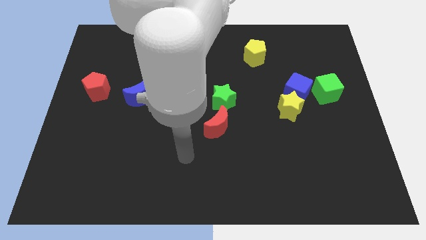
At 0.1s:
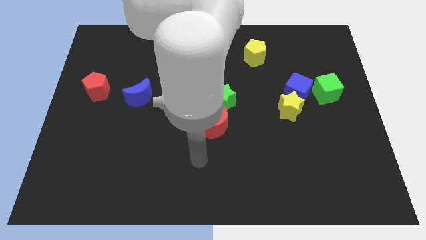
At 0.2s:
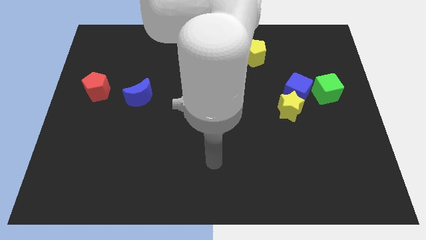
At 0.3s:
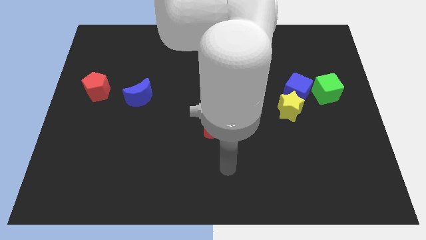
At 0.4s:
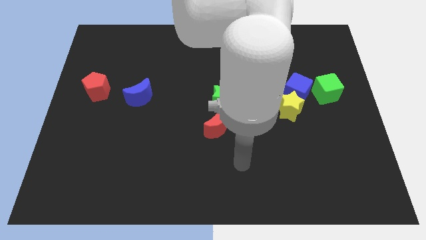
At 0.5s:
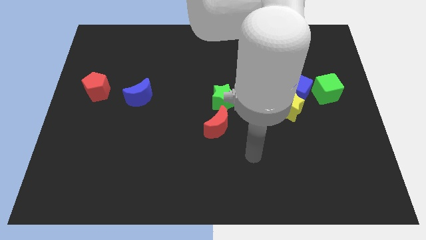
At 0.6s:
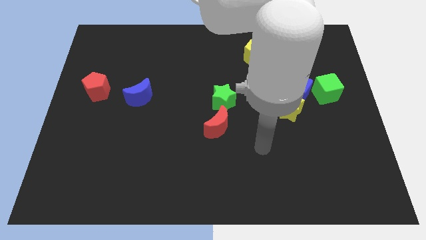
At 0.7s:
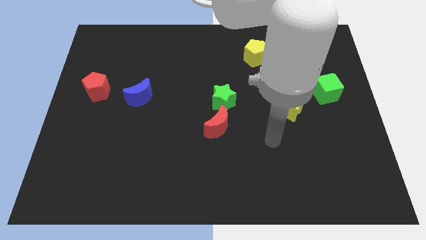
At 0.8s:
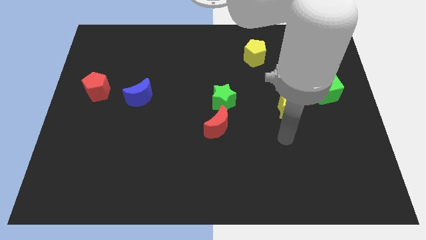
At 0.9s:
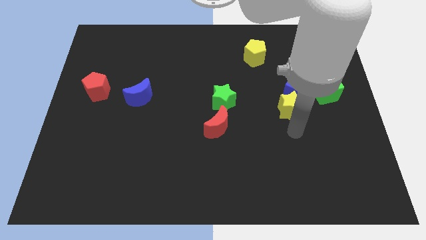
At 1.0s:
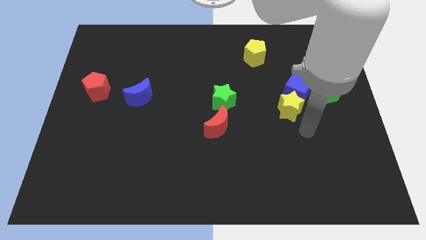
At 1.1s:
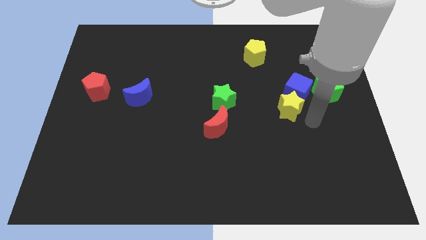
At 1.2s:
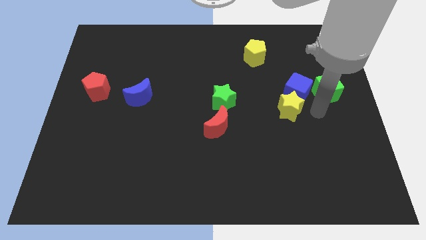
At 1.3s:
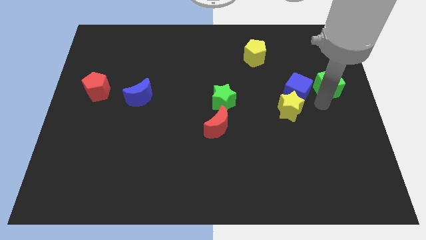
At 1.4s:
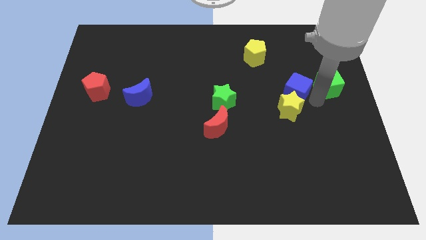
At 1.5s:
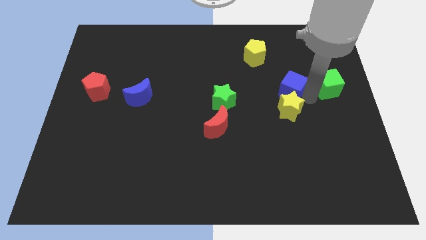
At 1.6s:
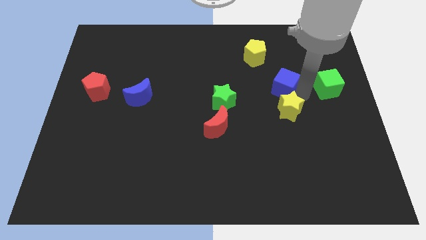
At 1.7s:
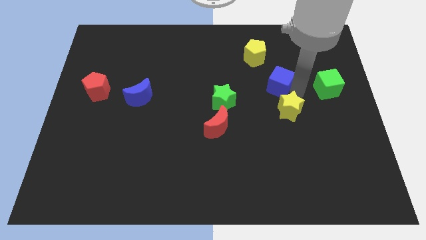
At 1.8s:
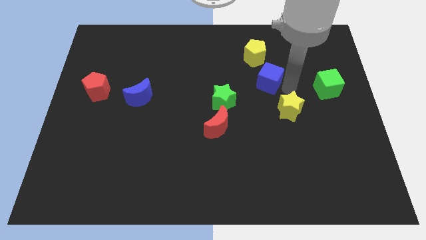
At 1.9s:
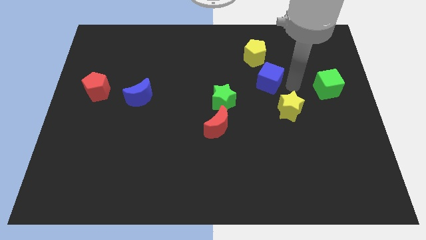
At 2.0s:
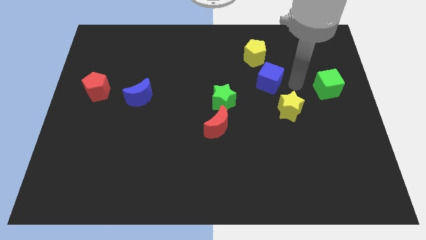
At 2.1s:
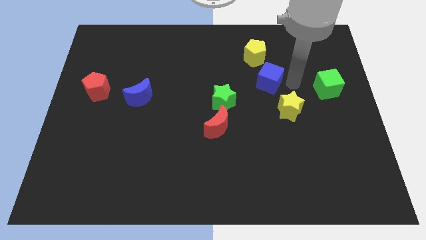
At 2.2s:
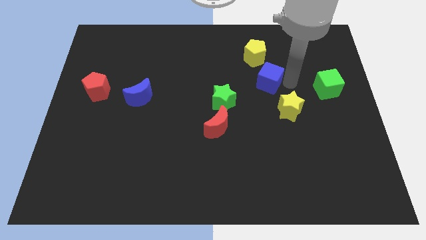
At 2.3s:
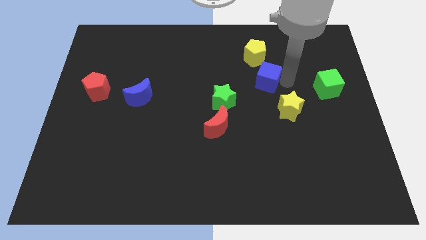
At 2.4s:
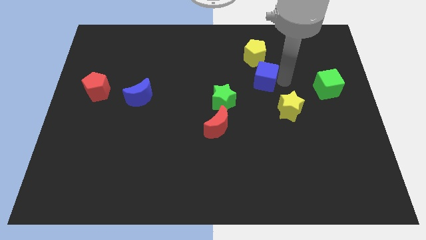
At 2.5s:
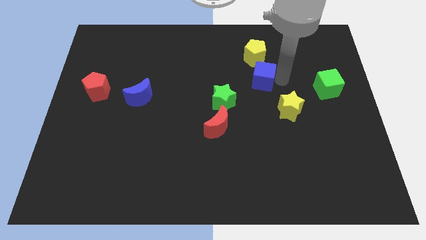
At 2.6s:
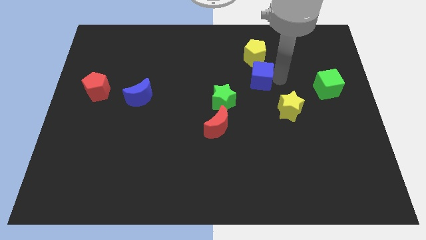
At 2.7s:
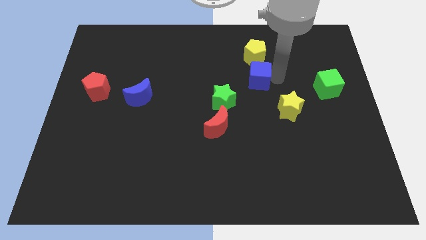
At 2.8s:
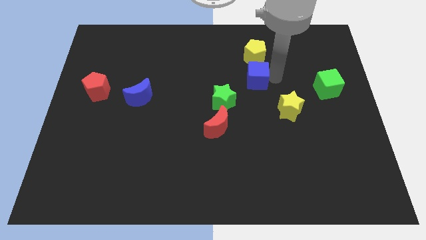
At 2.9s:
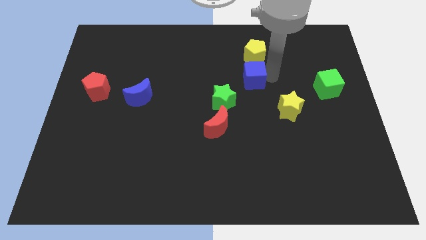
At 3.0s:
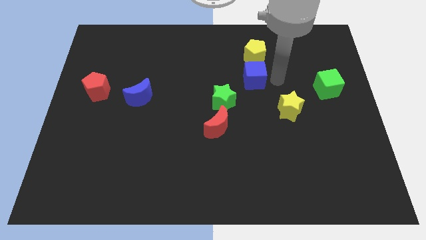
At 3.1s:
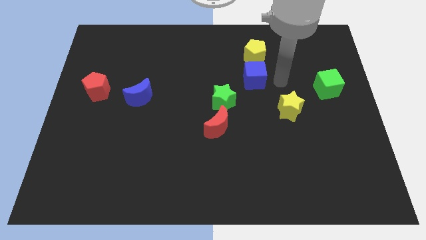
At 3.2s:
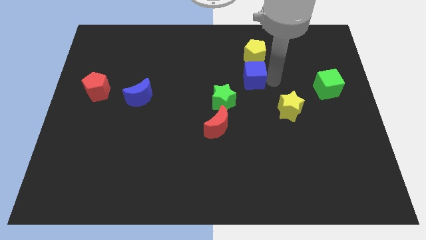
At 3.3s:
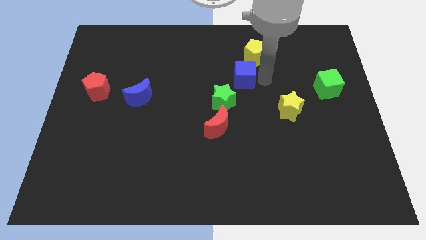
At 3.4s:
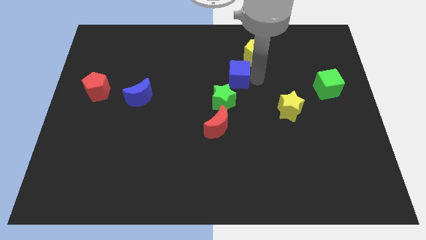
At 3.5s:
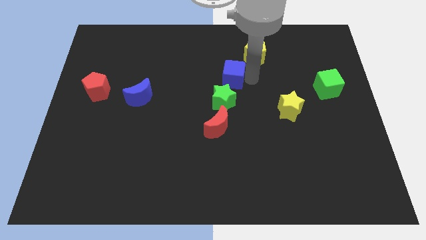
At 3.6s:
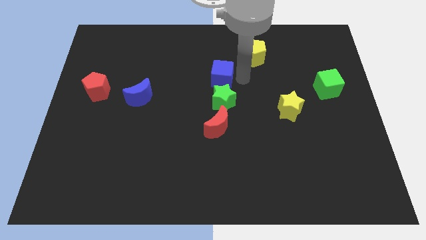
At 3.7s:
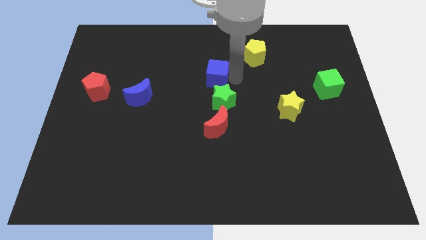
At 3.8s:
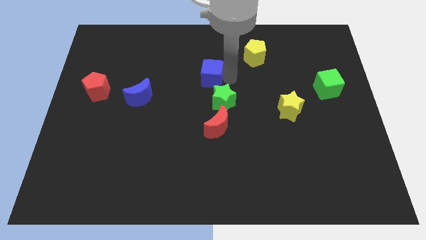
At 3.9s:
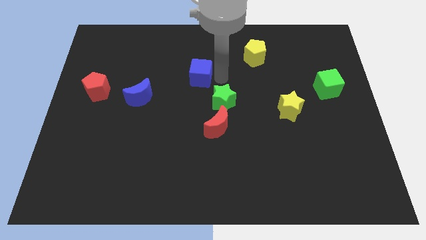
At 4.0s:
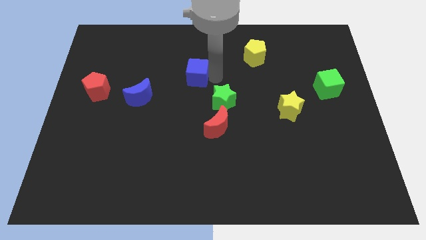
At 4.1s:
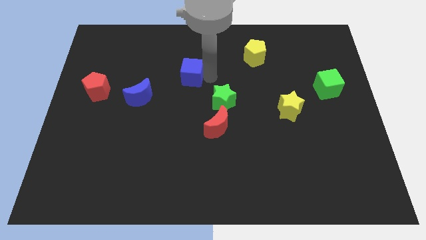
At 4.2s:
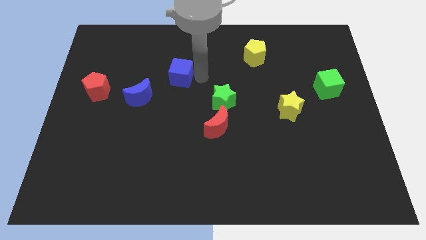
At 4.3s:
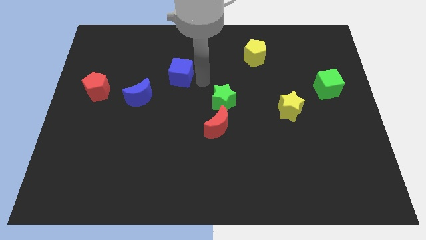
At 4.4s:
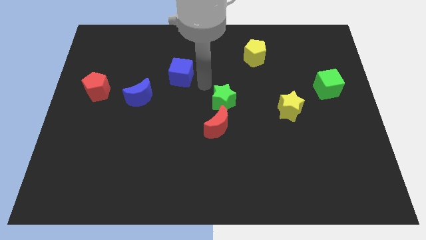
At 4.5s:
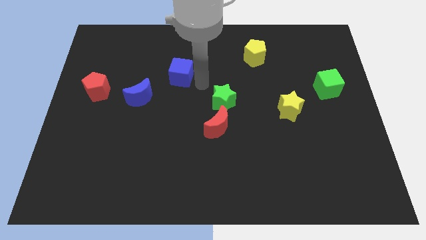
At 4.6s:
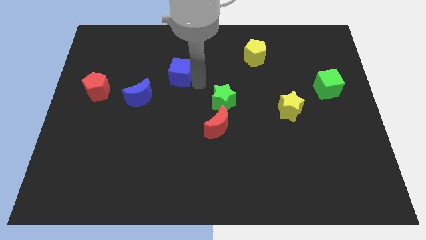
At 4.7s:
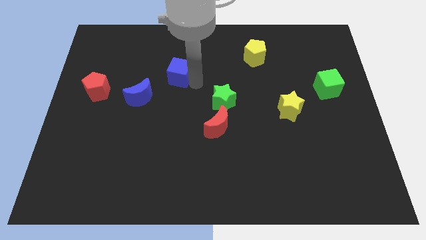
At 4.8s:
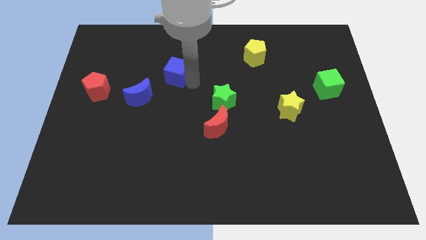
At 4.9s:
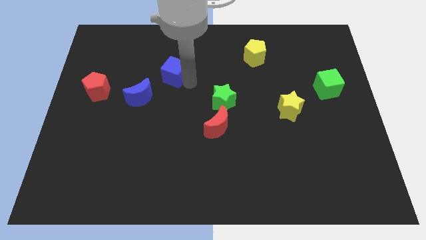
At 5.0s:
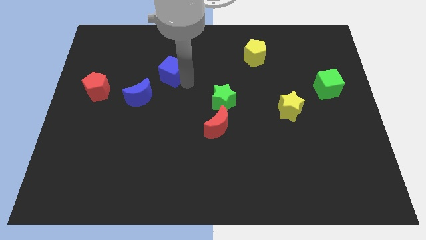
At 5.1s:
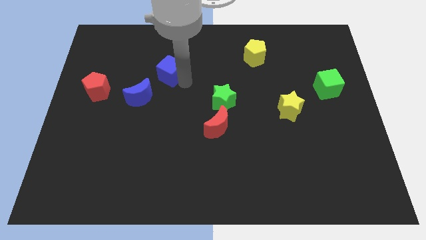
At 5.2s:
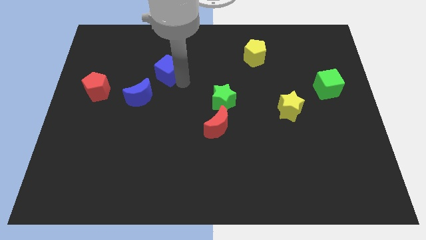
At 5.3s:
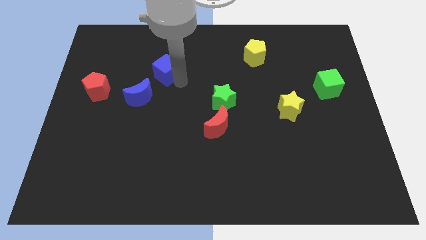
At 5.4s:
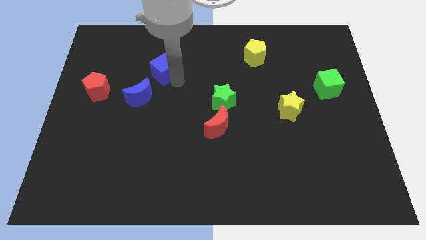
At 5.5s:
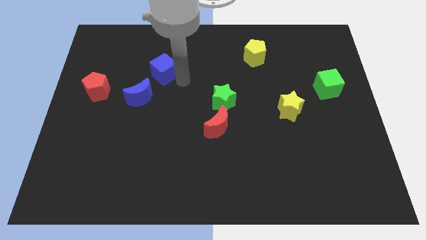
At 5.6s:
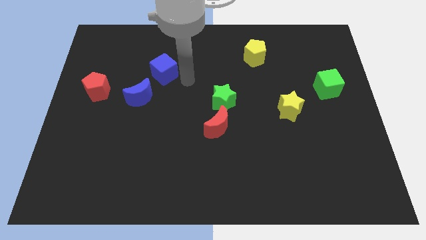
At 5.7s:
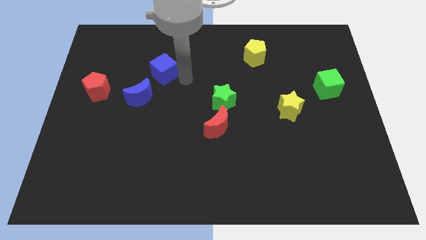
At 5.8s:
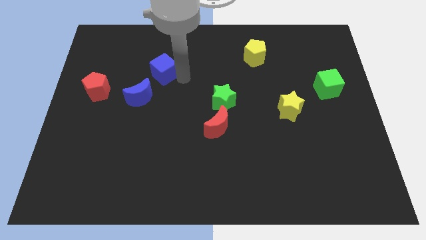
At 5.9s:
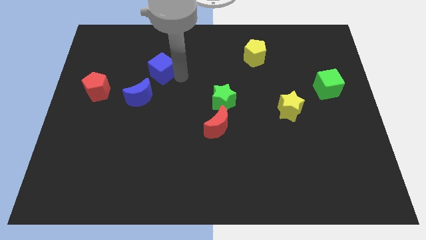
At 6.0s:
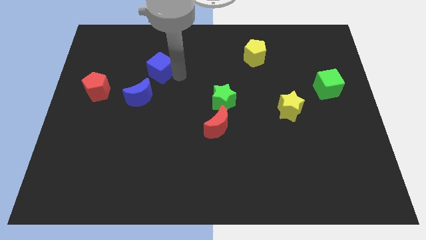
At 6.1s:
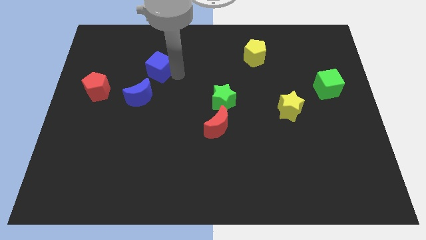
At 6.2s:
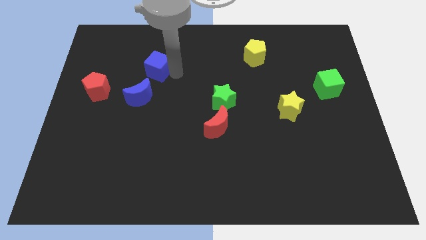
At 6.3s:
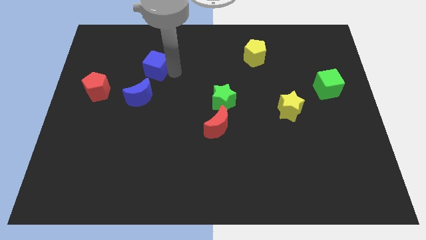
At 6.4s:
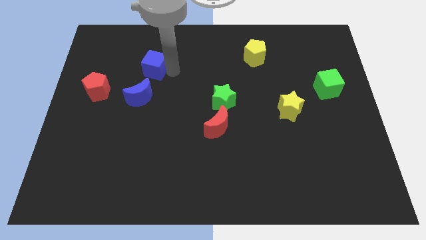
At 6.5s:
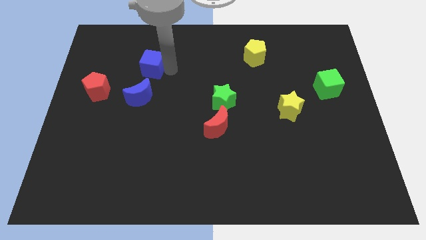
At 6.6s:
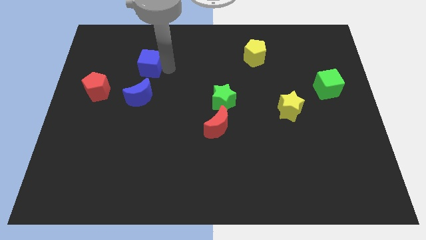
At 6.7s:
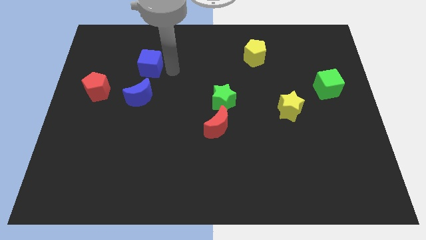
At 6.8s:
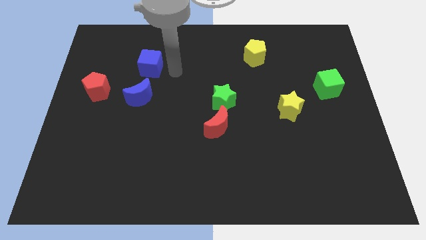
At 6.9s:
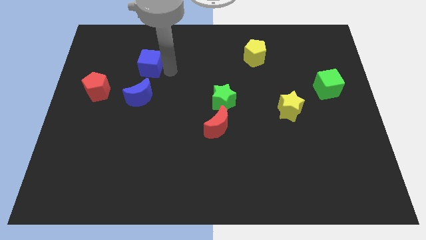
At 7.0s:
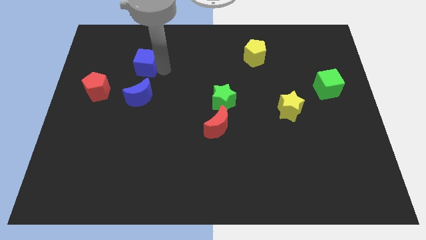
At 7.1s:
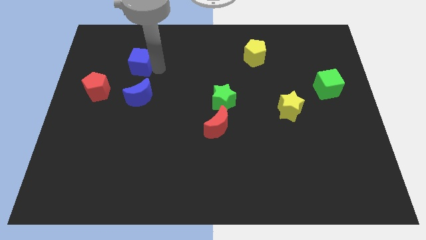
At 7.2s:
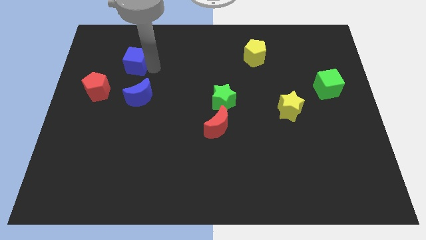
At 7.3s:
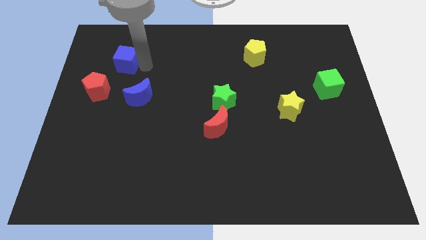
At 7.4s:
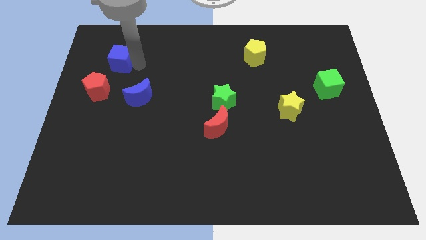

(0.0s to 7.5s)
put the blue cube above the red pentagon

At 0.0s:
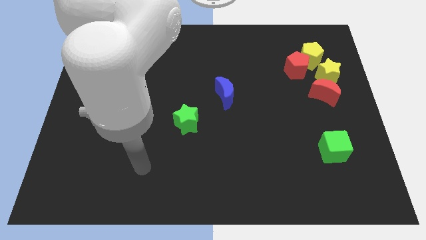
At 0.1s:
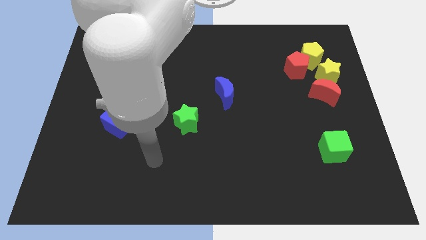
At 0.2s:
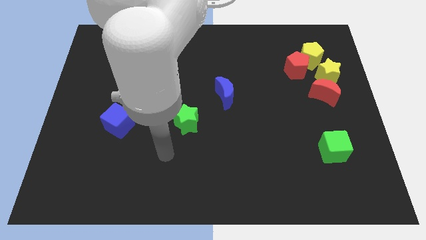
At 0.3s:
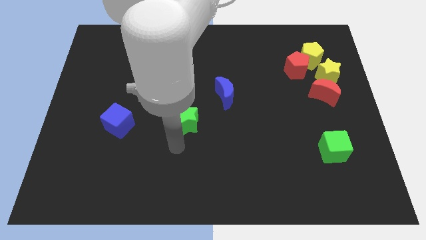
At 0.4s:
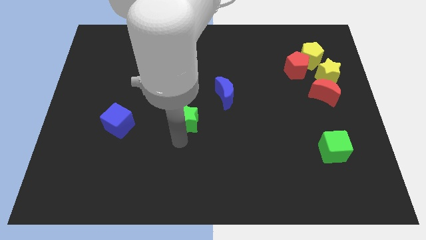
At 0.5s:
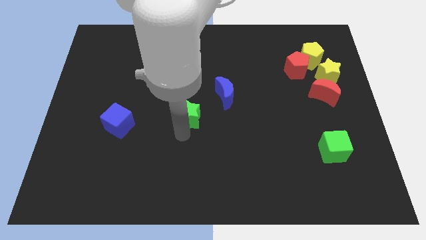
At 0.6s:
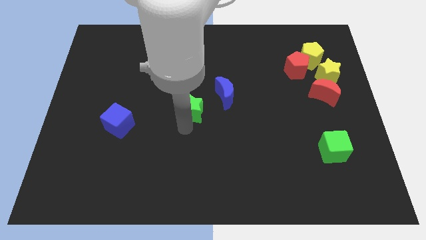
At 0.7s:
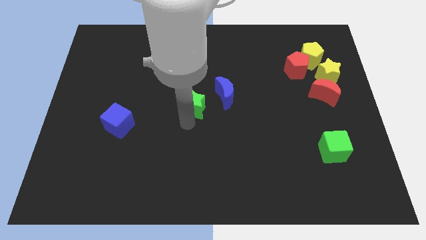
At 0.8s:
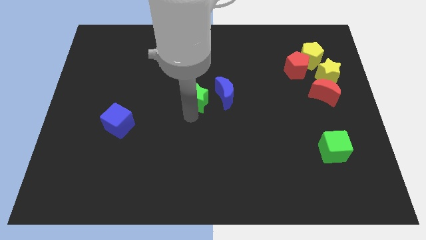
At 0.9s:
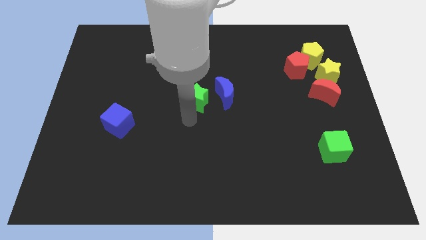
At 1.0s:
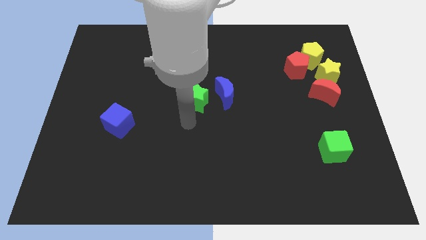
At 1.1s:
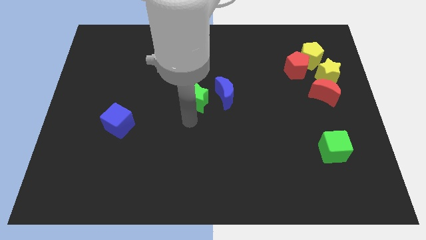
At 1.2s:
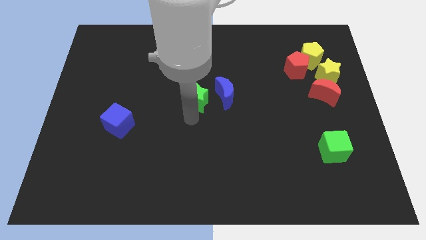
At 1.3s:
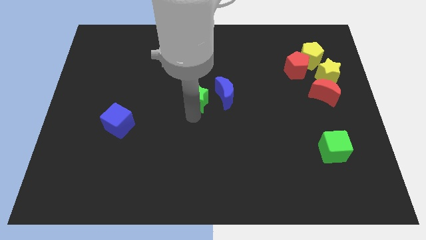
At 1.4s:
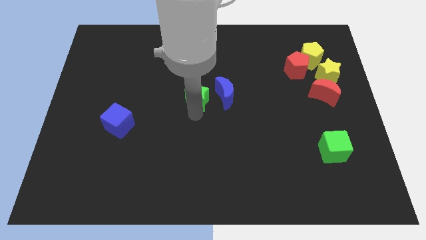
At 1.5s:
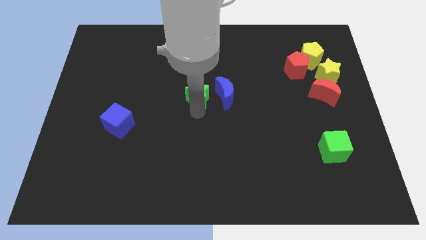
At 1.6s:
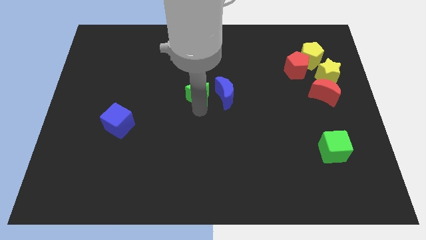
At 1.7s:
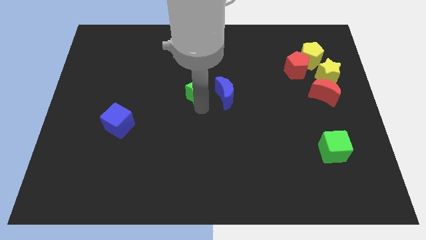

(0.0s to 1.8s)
move the green star to the top left side of the blue moon
